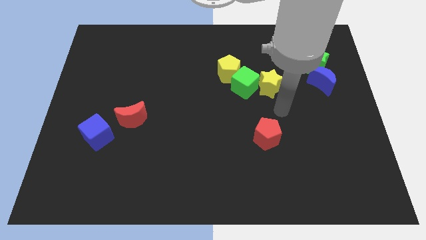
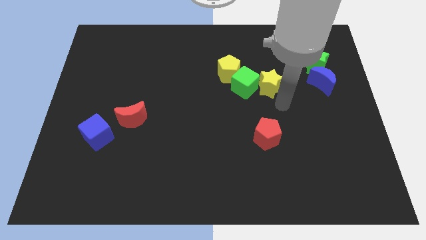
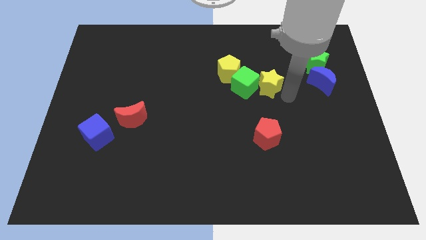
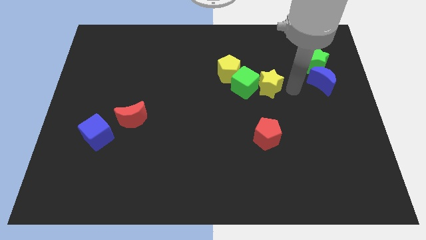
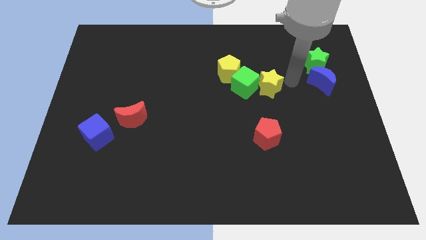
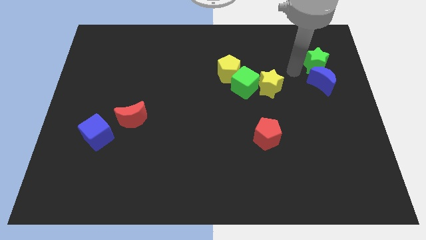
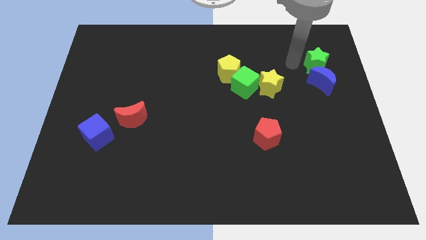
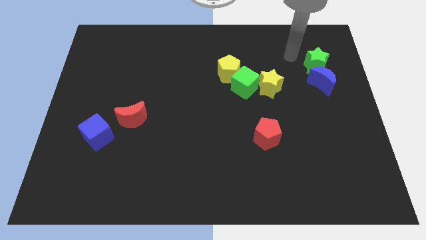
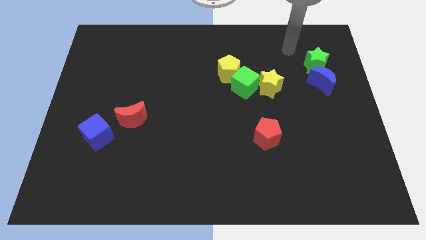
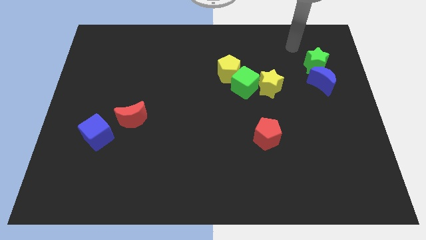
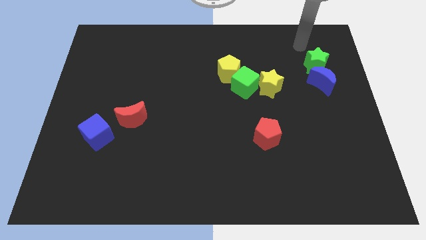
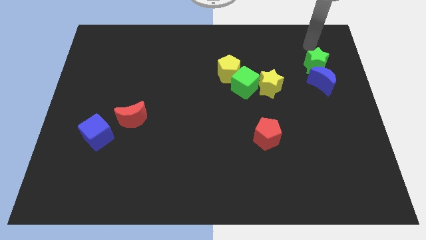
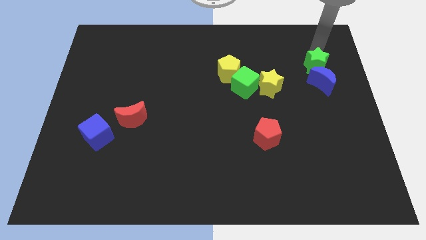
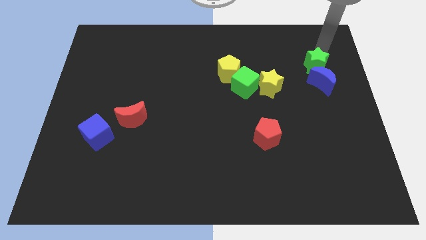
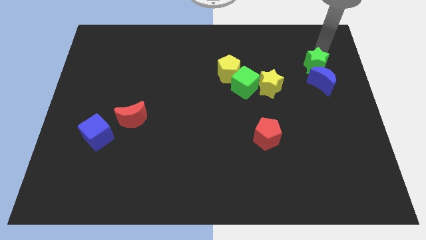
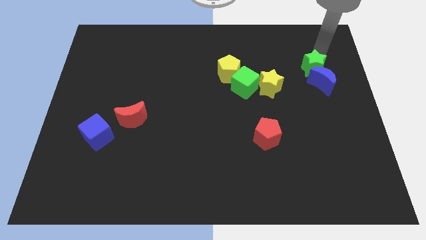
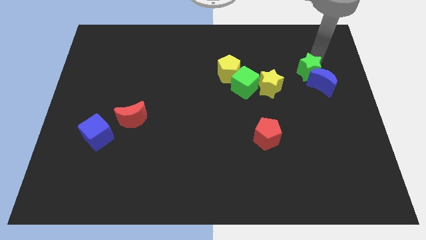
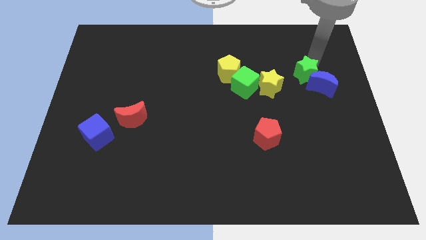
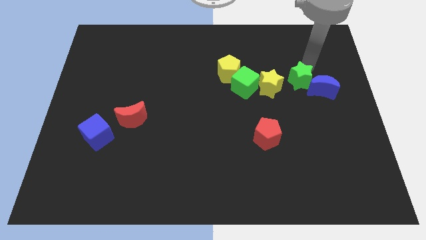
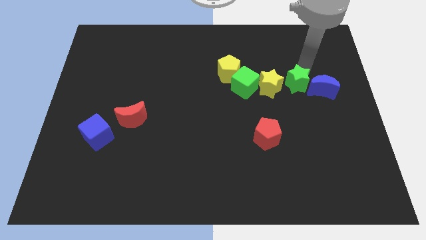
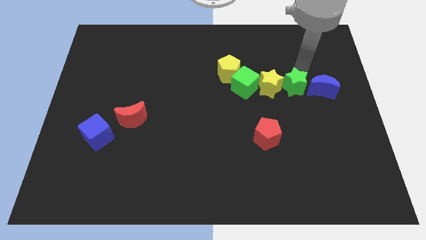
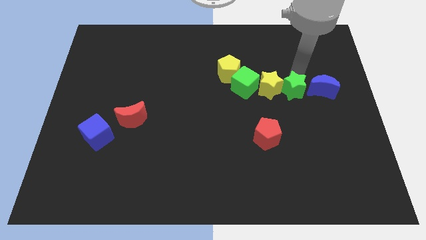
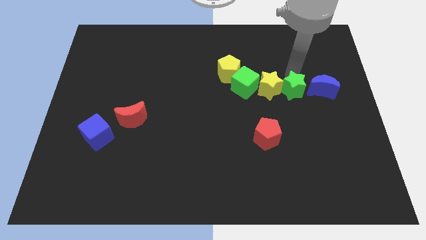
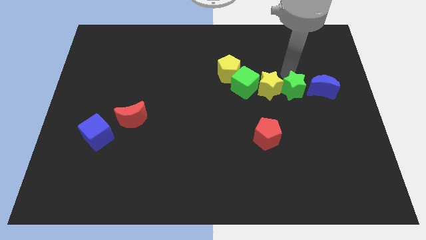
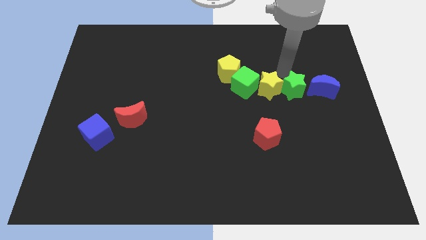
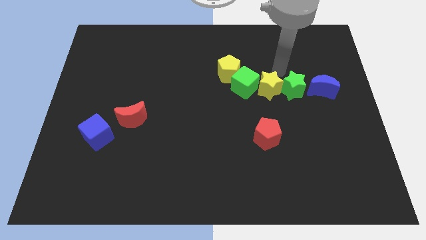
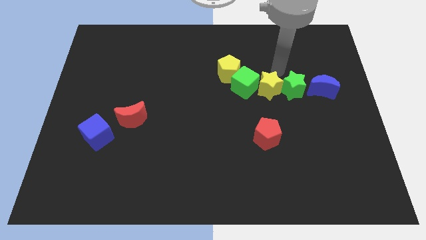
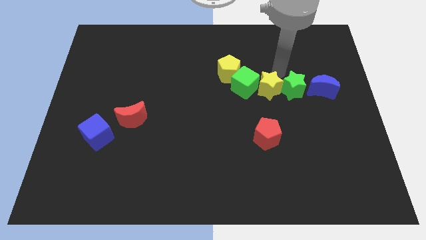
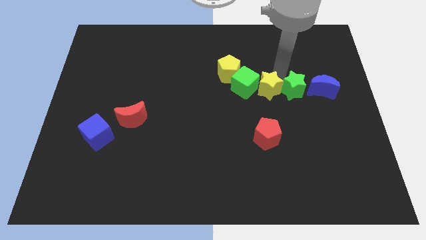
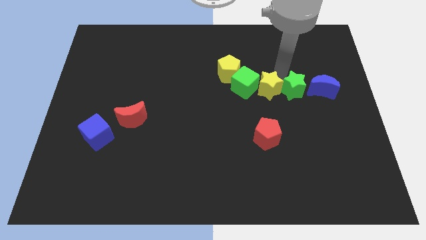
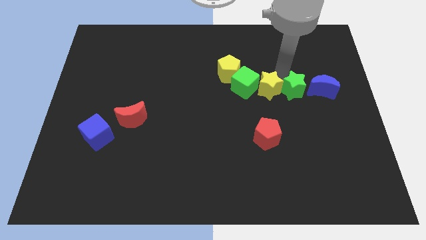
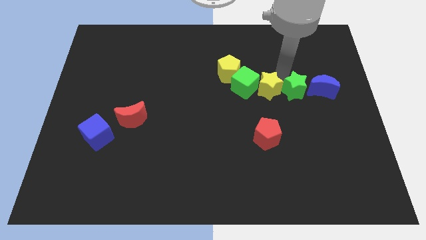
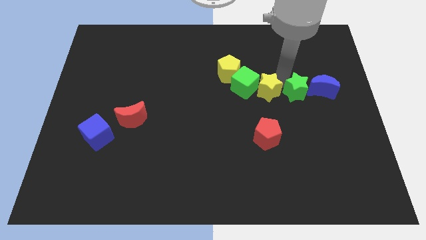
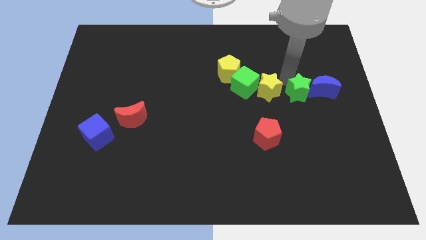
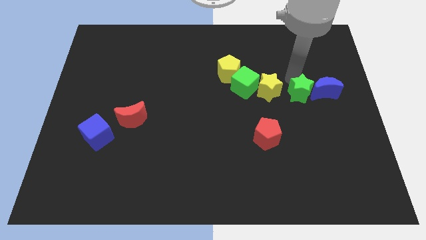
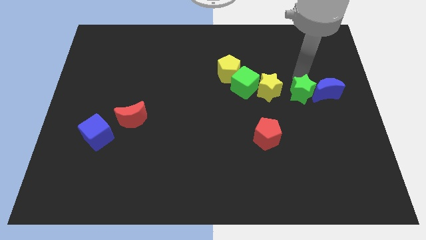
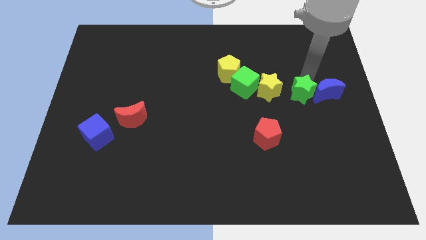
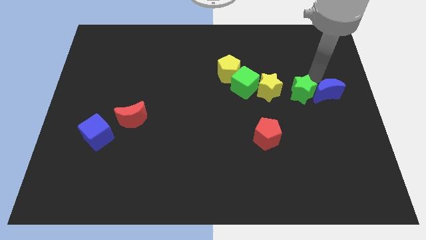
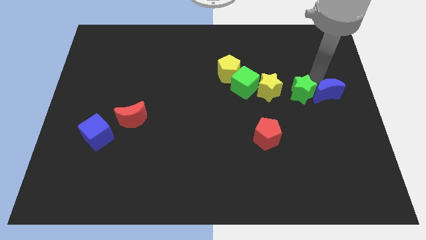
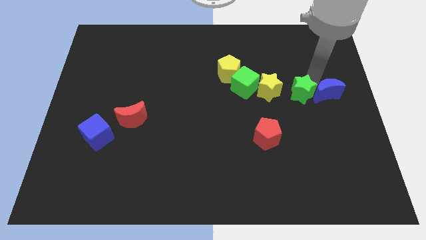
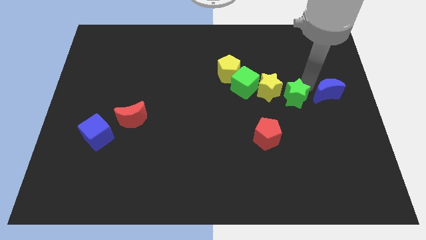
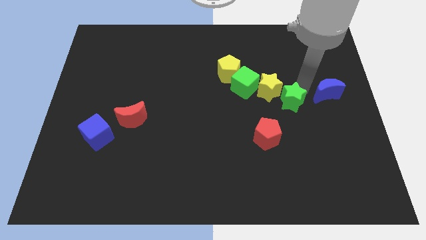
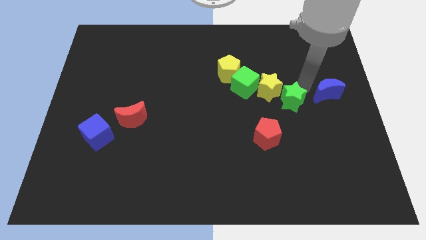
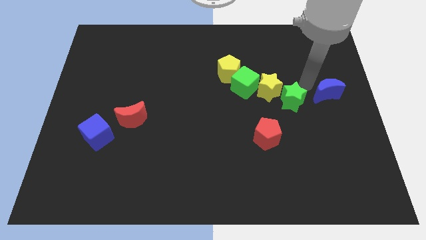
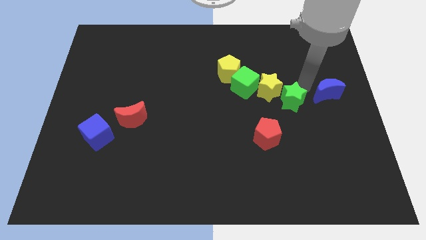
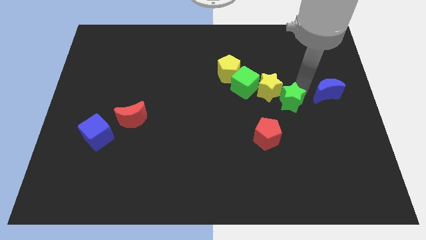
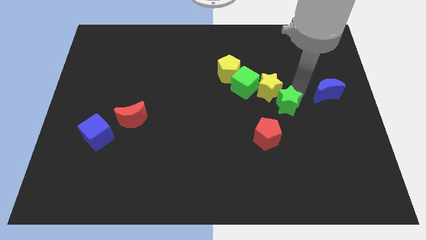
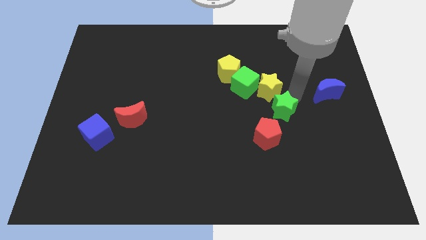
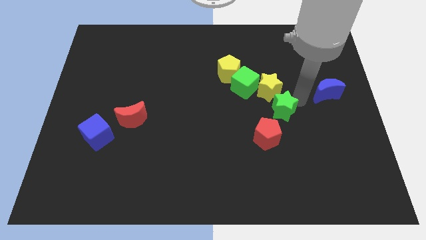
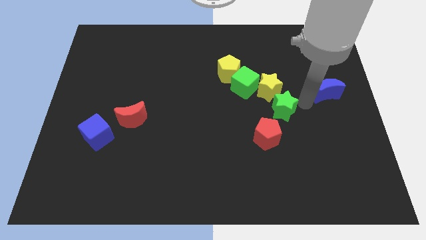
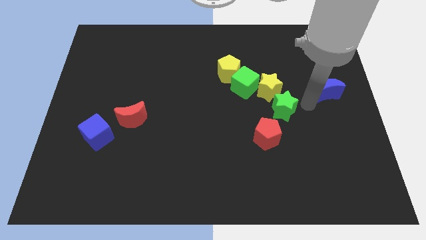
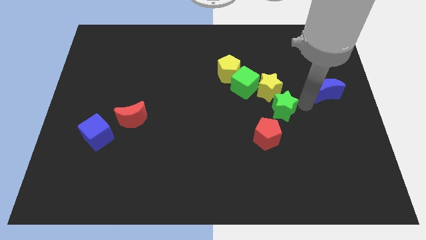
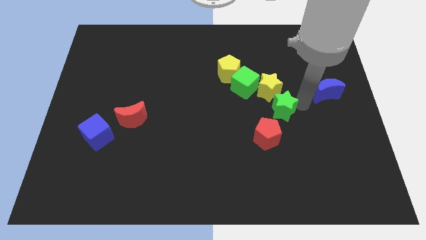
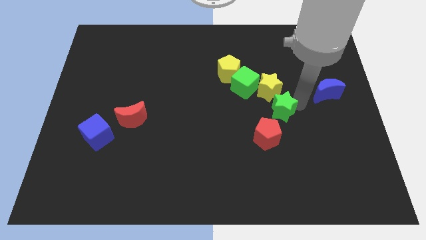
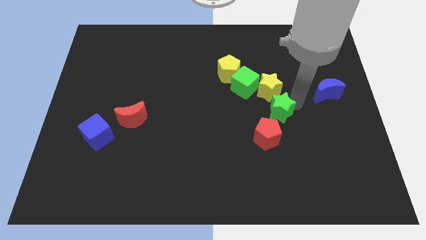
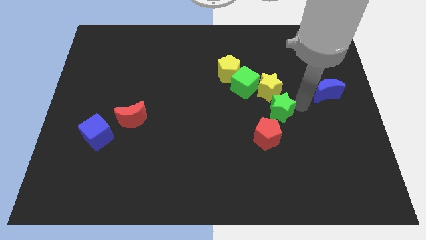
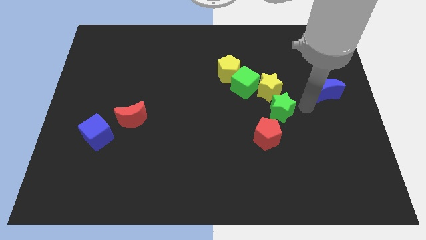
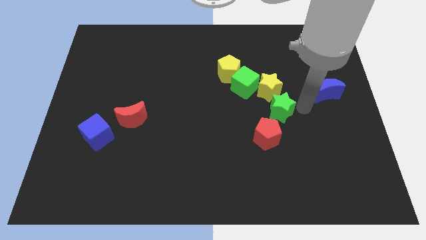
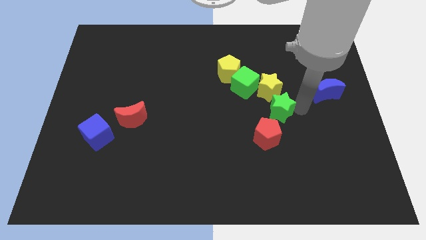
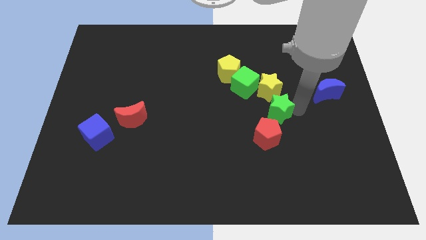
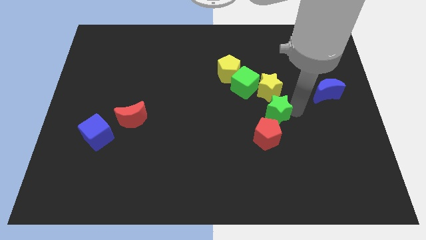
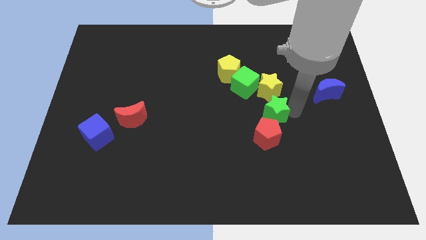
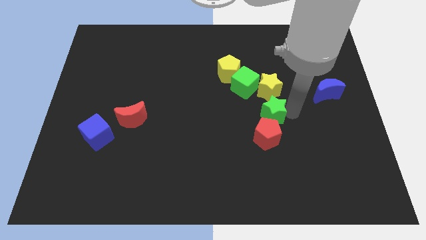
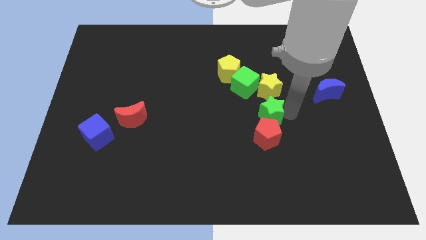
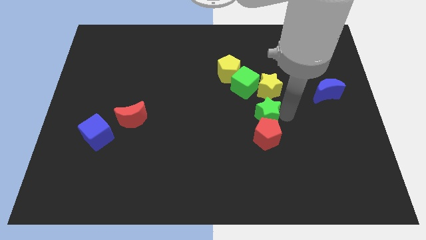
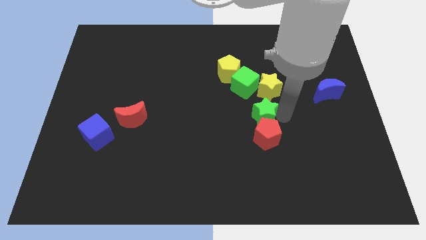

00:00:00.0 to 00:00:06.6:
put the green star to the center of the board
